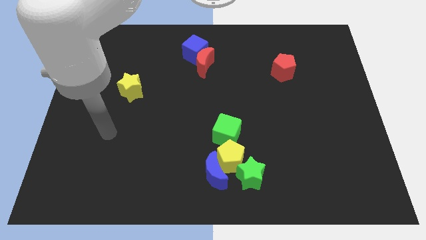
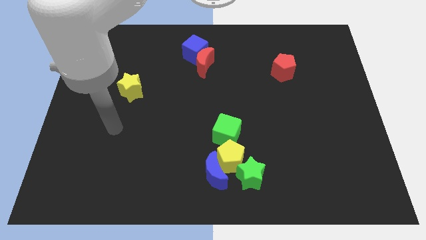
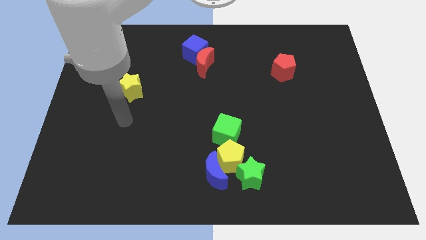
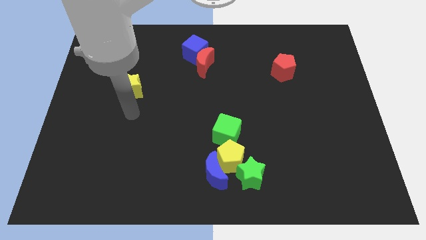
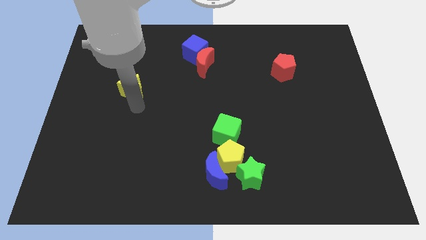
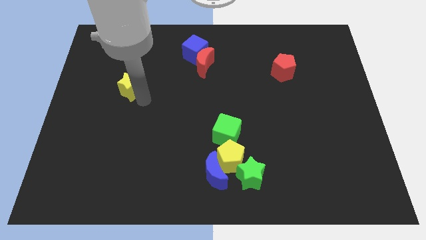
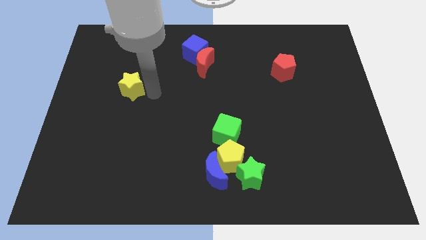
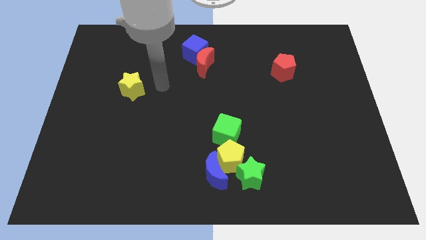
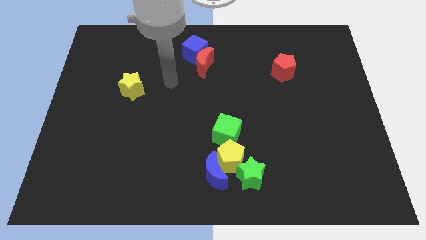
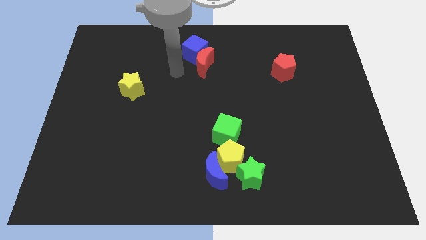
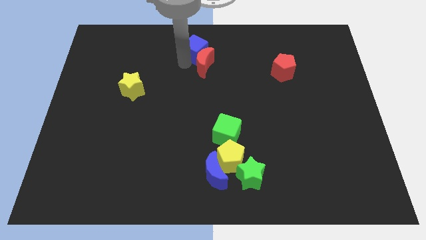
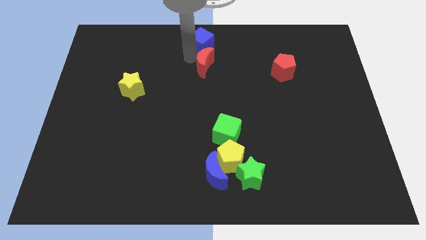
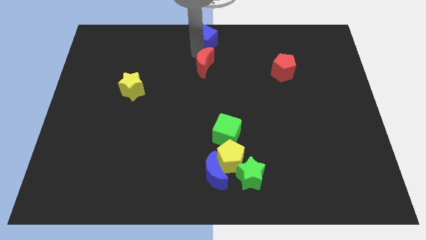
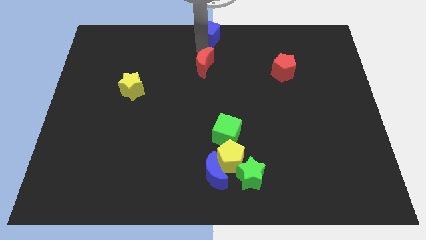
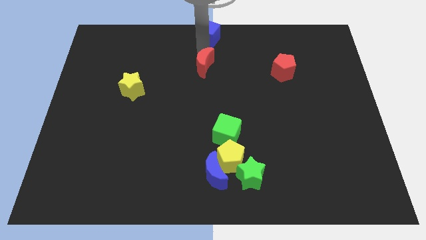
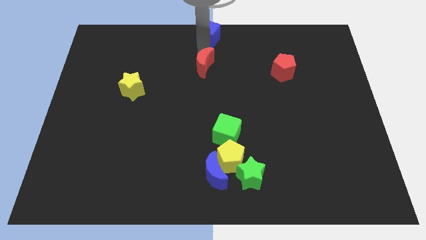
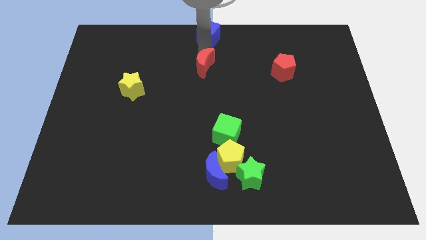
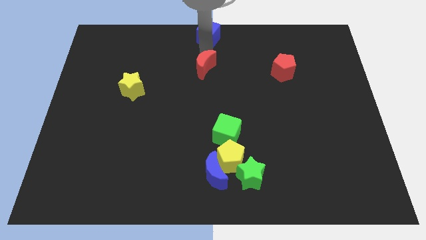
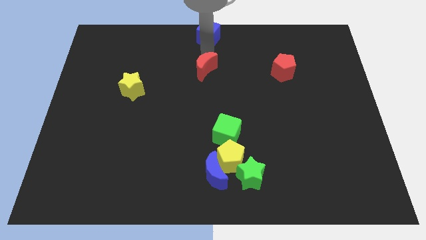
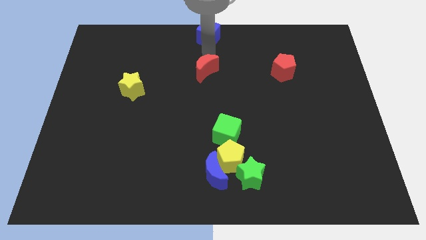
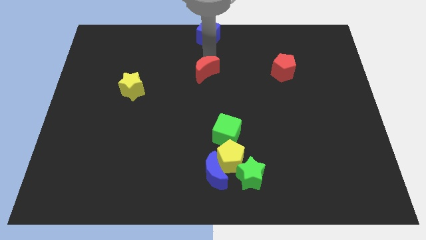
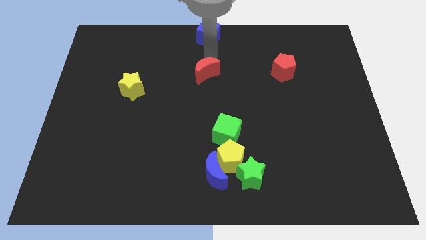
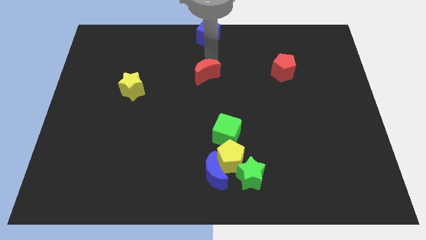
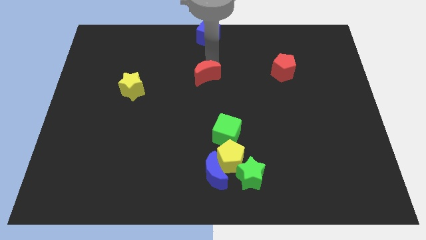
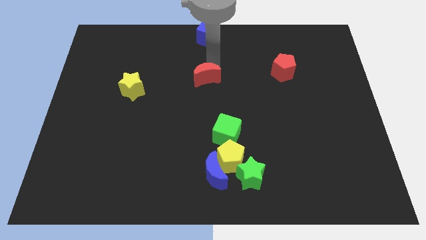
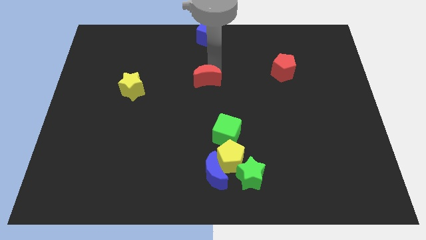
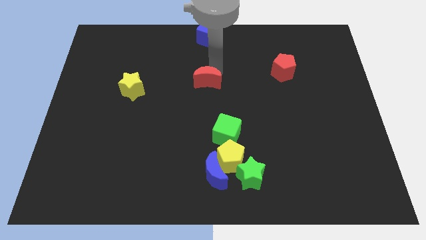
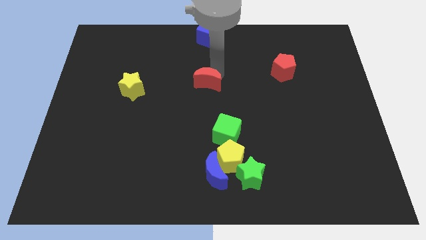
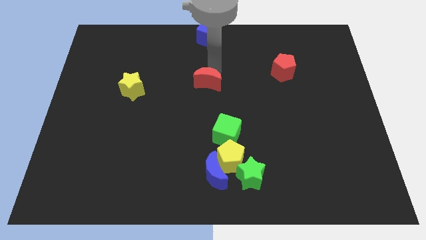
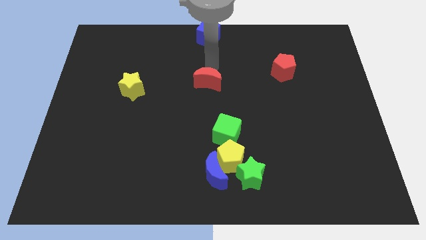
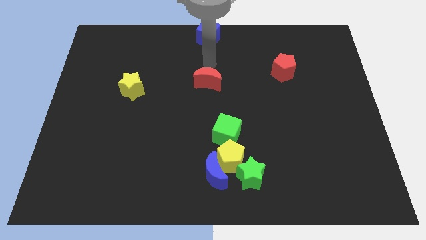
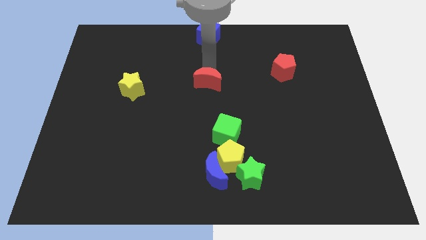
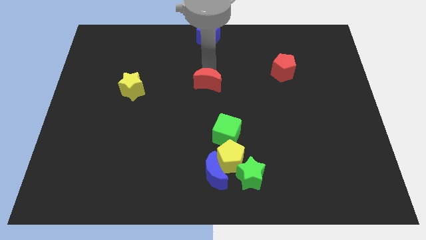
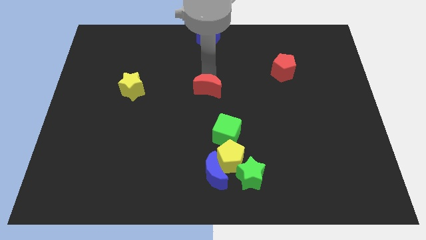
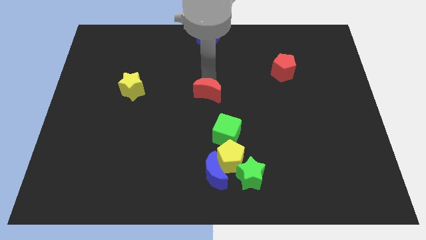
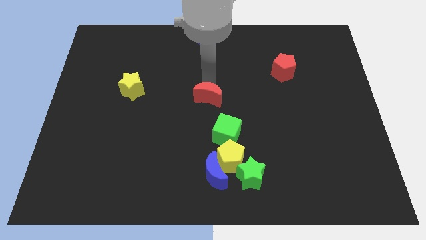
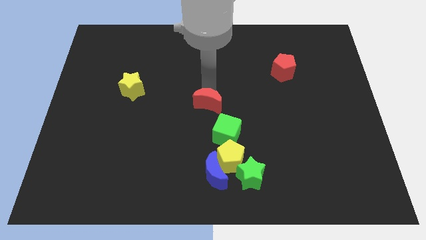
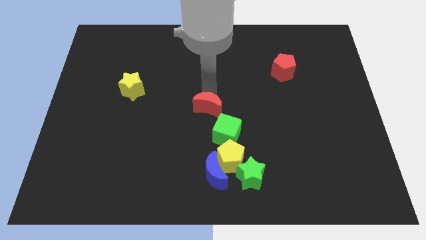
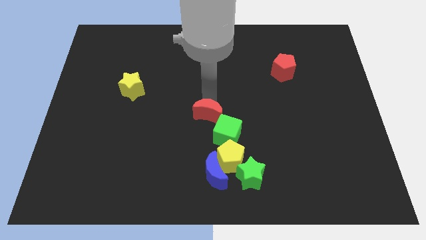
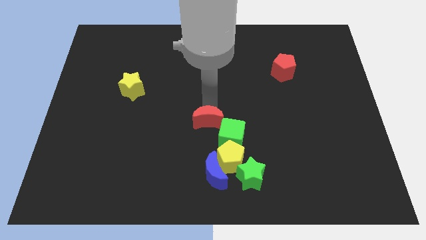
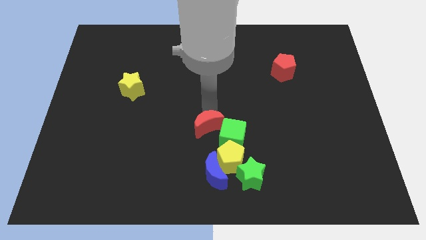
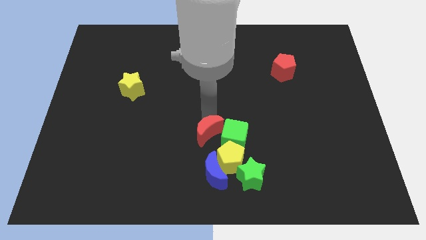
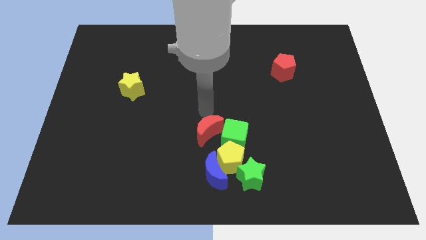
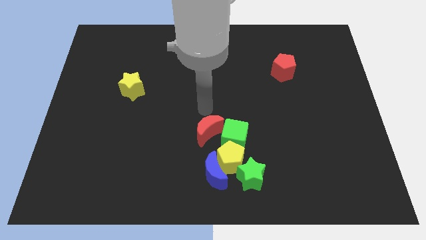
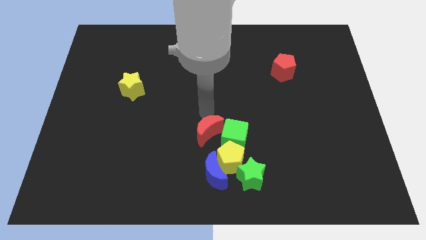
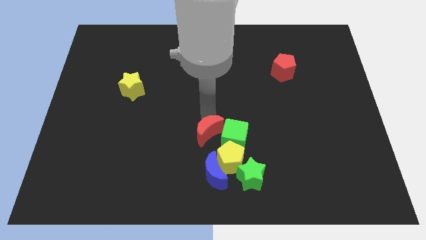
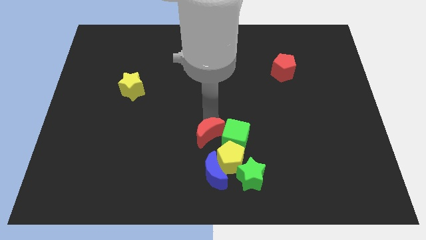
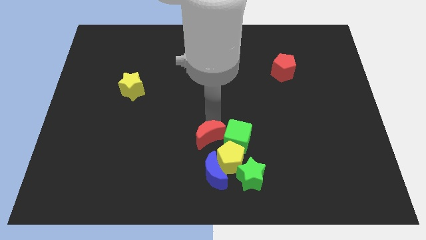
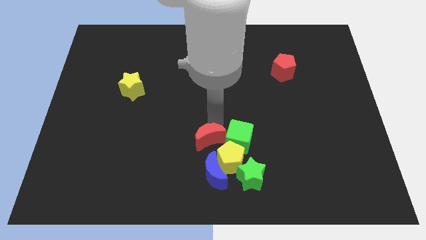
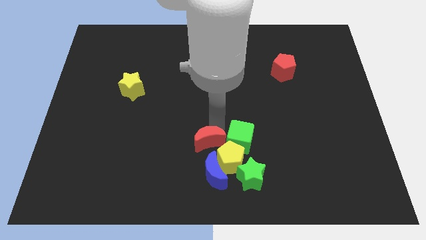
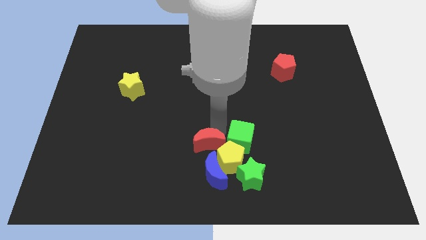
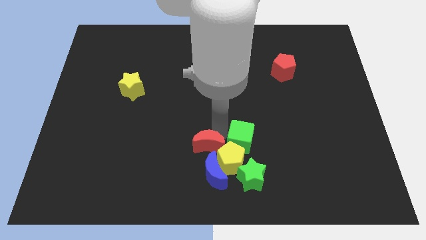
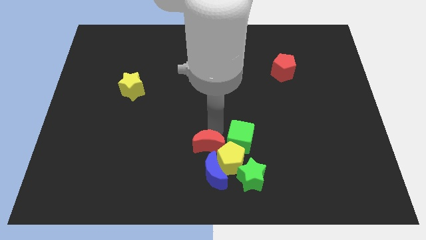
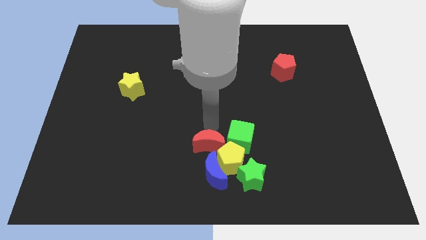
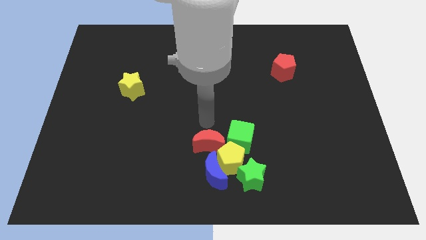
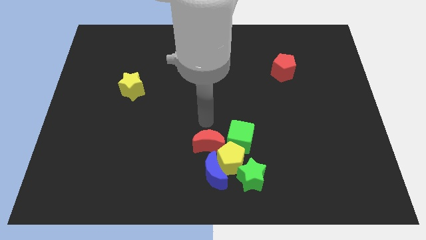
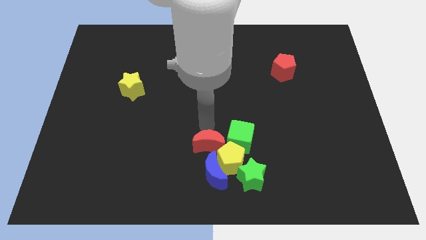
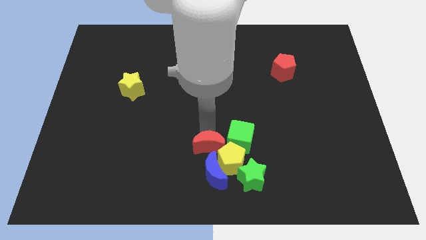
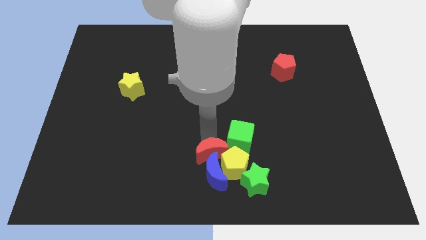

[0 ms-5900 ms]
slide the red moon next to the blue moon

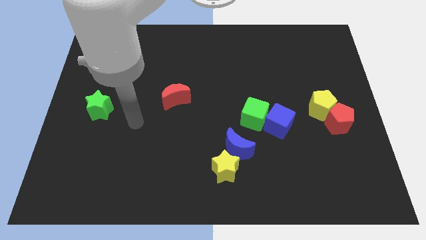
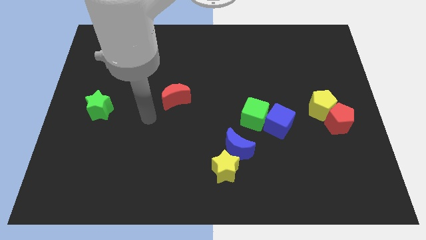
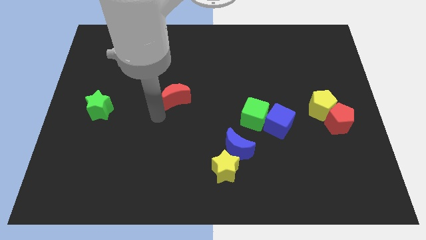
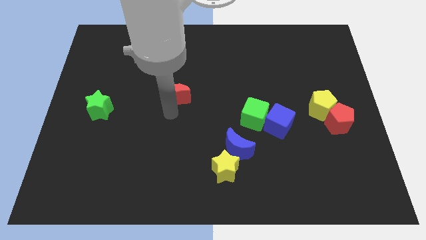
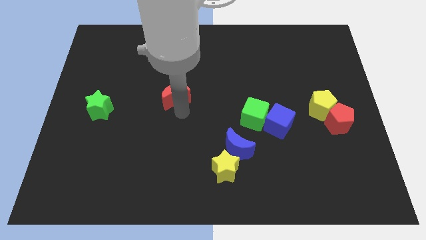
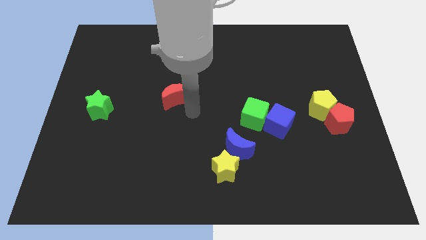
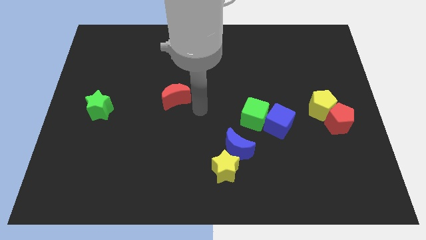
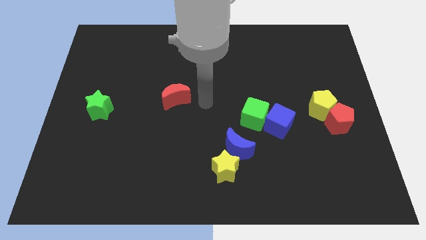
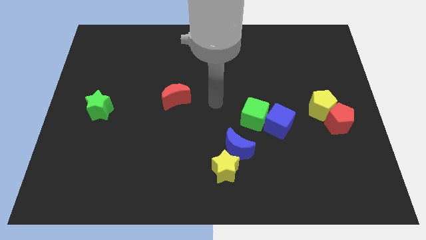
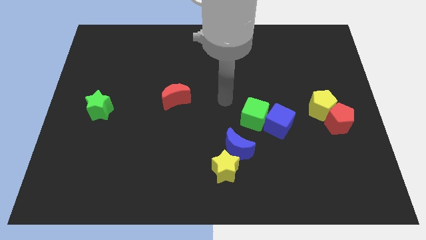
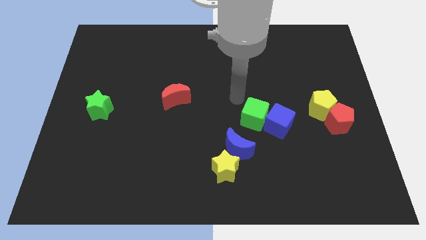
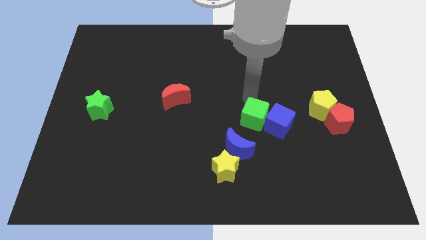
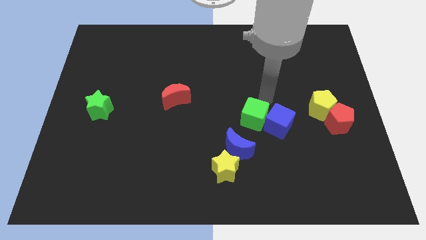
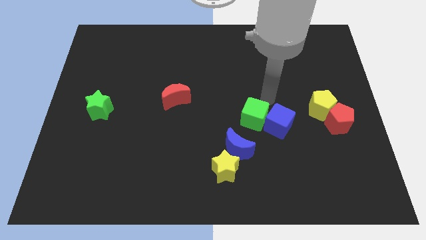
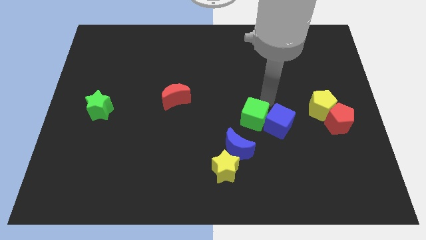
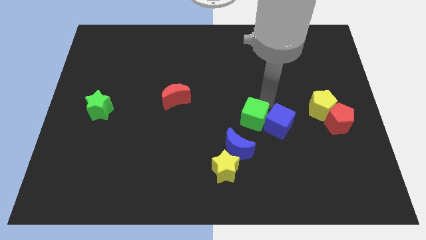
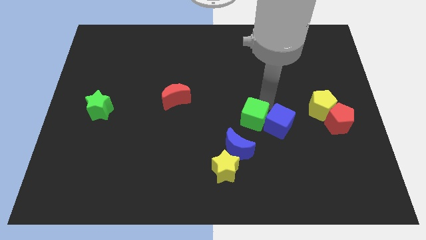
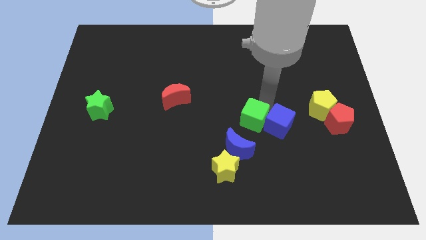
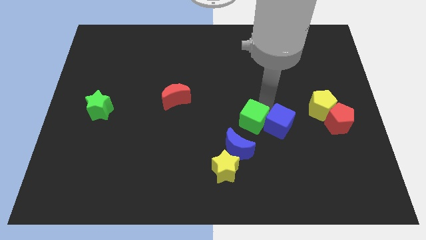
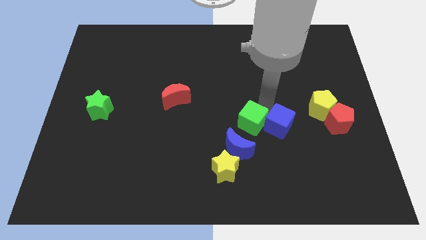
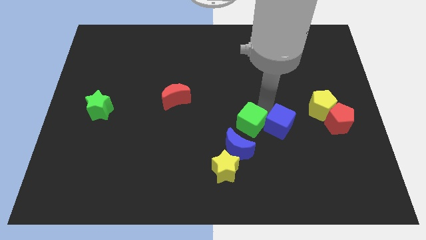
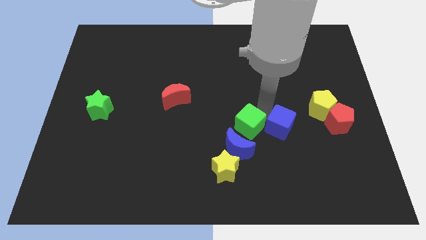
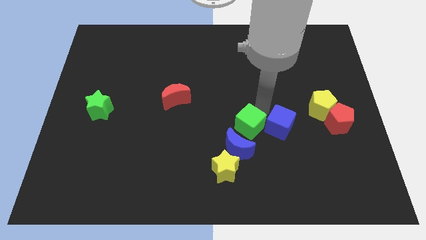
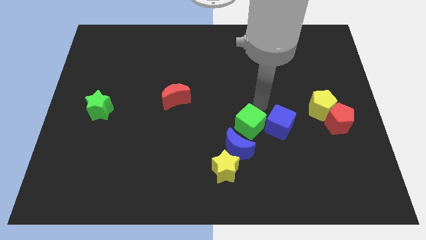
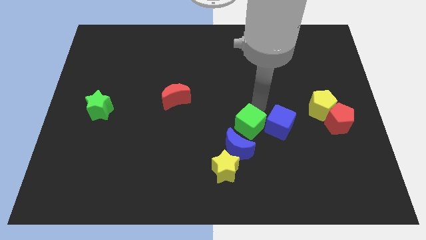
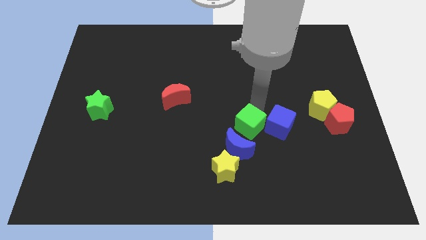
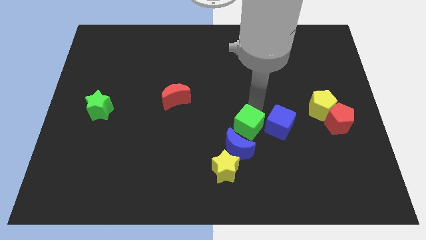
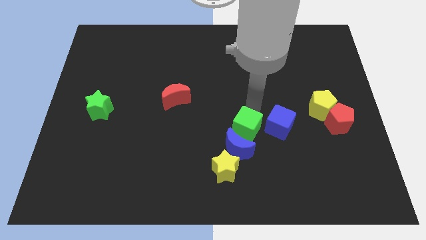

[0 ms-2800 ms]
move the green cube towards the blue moon
